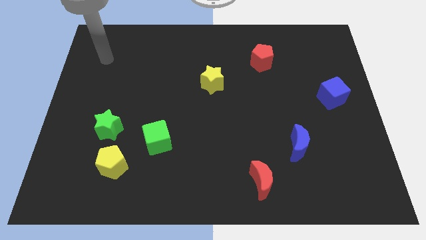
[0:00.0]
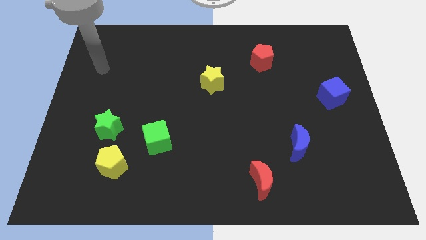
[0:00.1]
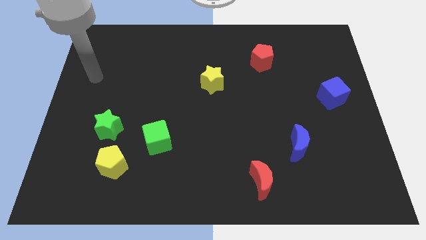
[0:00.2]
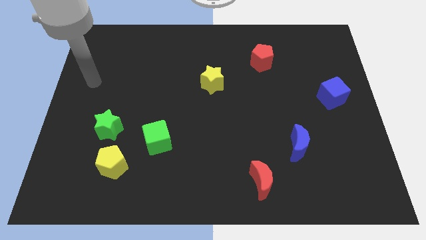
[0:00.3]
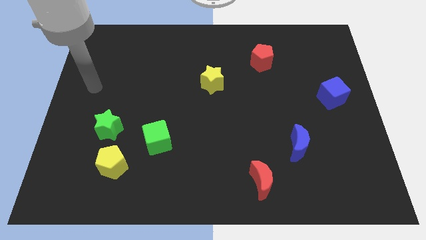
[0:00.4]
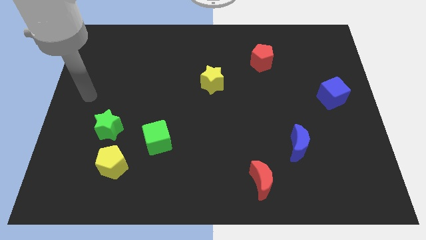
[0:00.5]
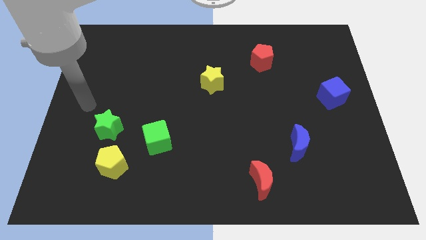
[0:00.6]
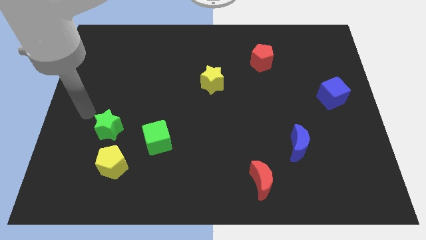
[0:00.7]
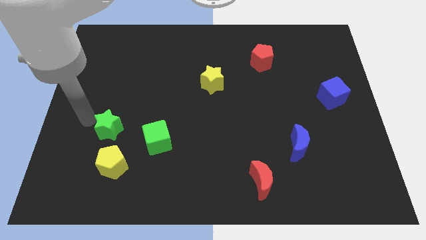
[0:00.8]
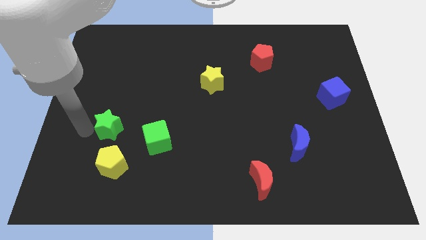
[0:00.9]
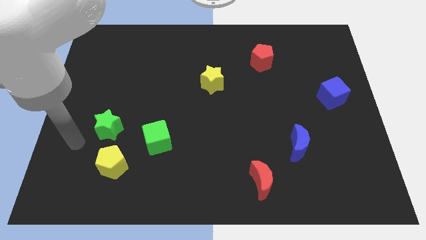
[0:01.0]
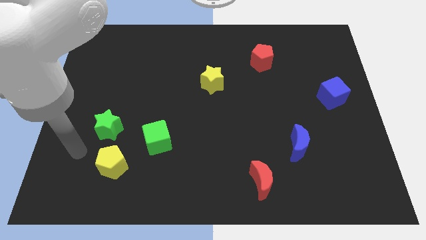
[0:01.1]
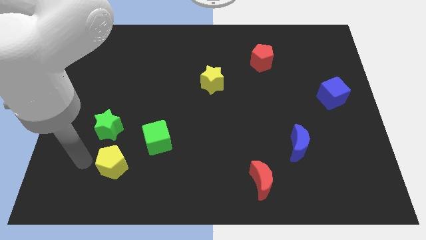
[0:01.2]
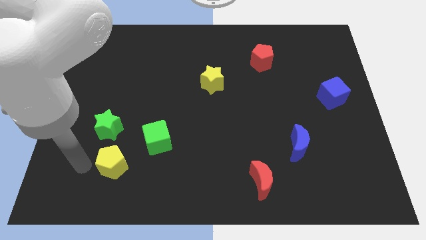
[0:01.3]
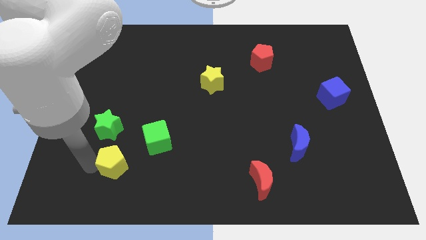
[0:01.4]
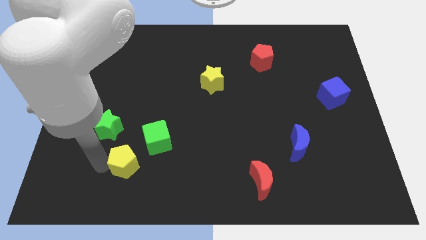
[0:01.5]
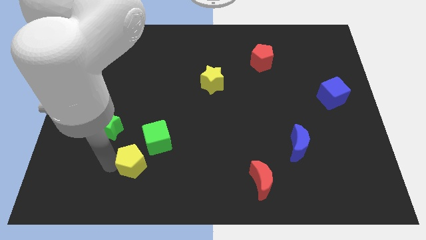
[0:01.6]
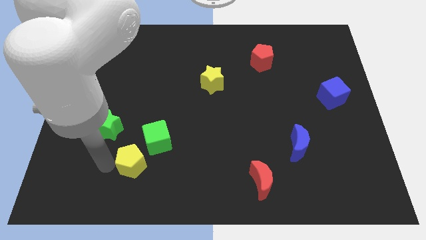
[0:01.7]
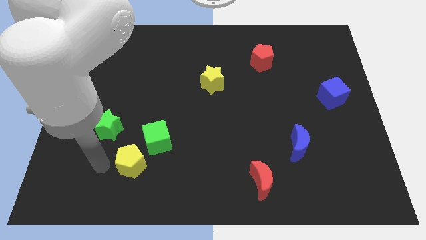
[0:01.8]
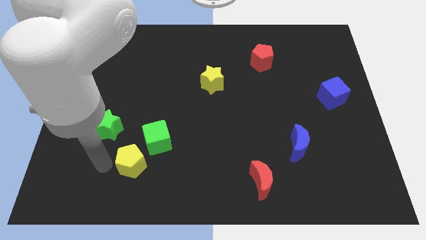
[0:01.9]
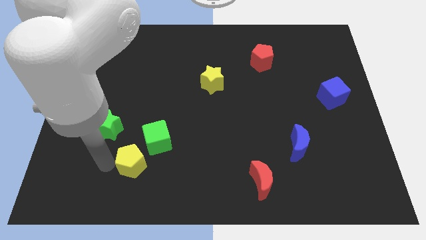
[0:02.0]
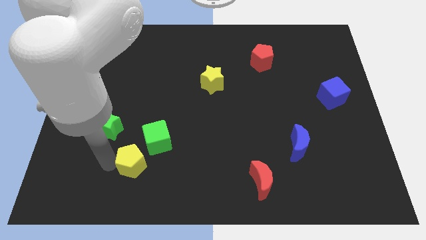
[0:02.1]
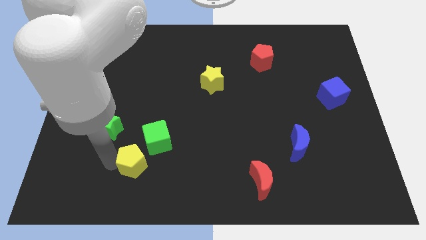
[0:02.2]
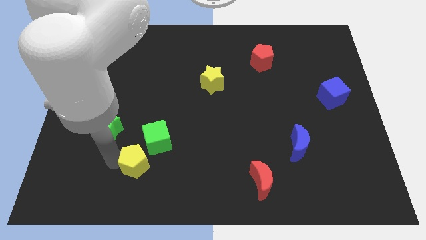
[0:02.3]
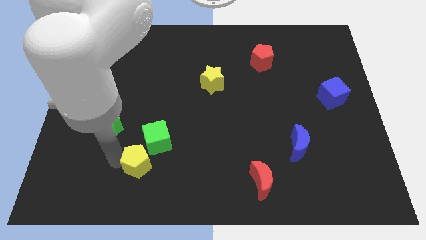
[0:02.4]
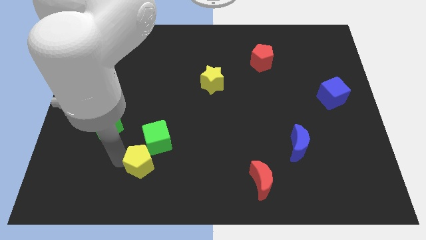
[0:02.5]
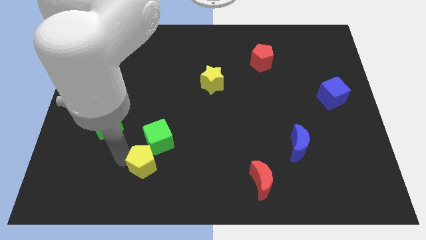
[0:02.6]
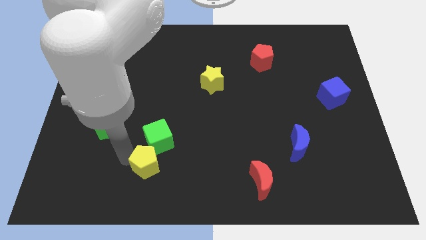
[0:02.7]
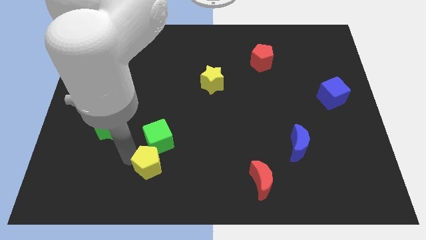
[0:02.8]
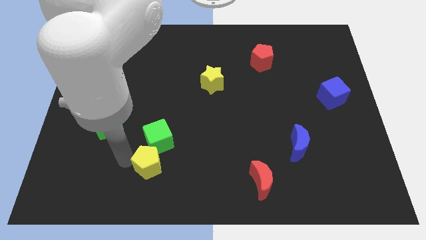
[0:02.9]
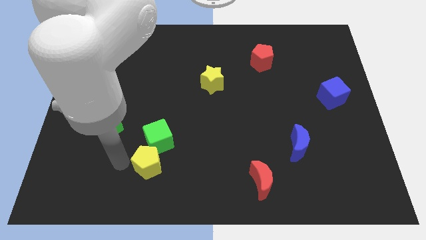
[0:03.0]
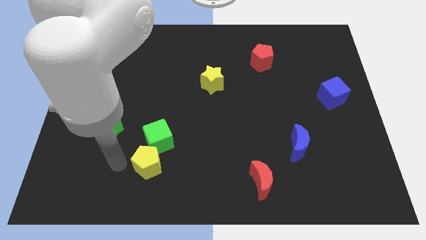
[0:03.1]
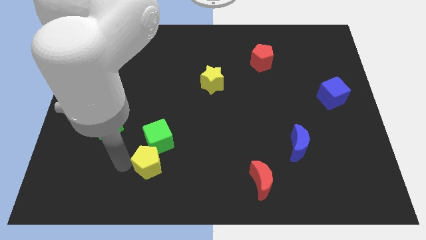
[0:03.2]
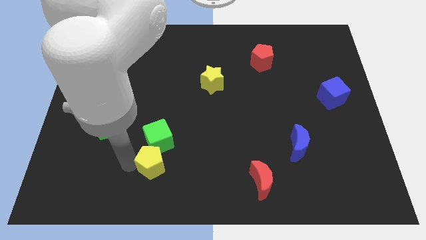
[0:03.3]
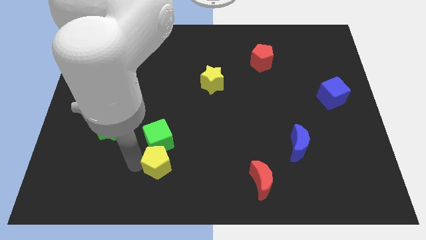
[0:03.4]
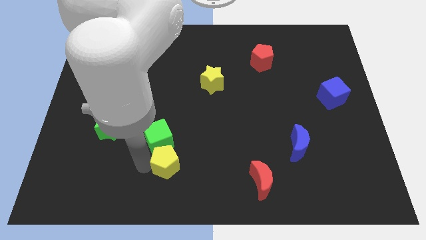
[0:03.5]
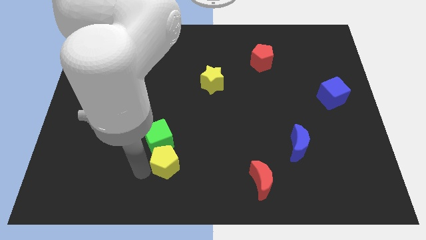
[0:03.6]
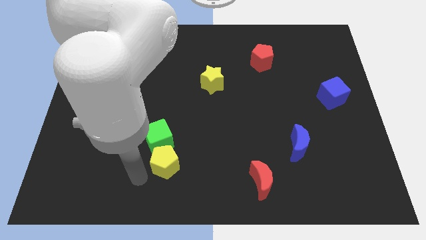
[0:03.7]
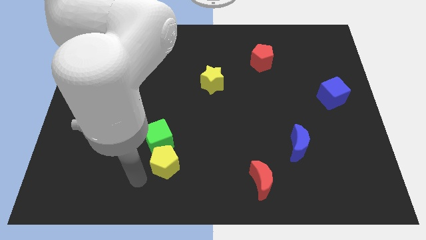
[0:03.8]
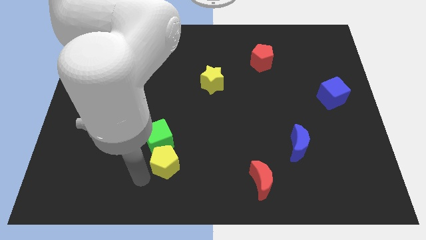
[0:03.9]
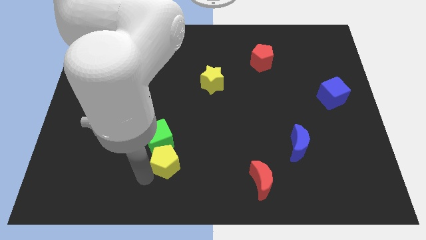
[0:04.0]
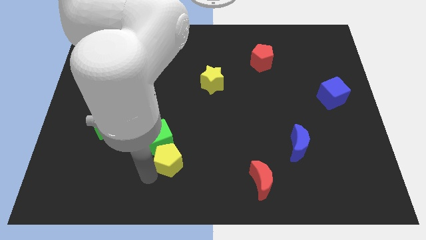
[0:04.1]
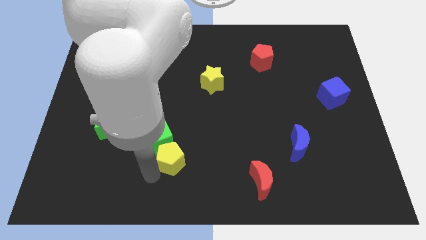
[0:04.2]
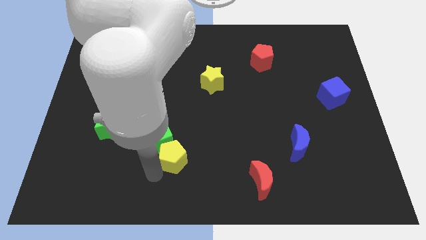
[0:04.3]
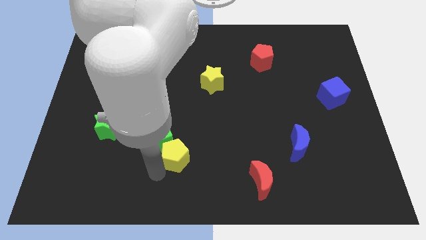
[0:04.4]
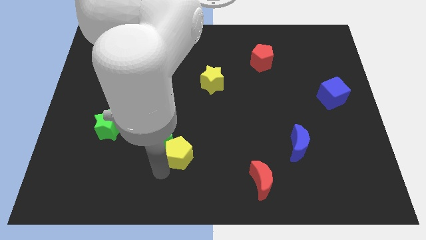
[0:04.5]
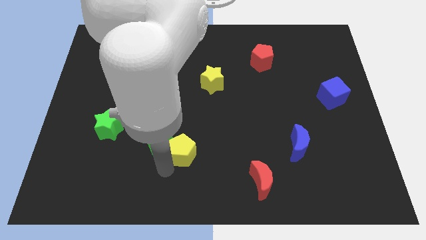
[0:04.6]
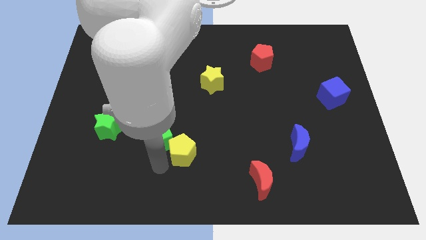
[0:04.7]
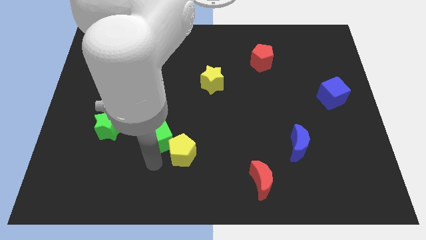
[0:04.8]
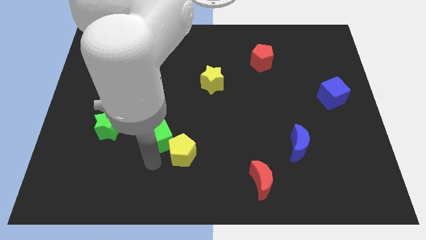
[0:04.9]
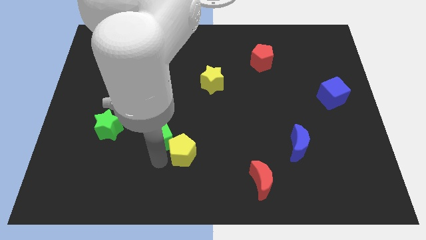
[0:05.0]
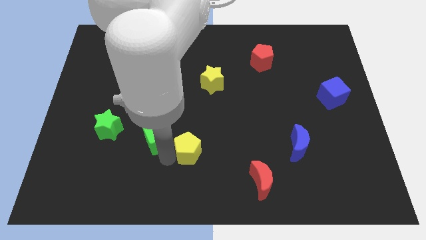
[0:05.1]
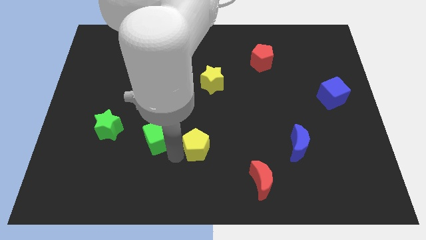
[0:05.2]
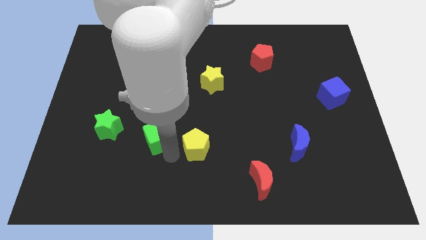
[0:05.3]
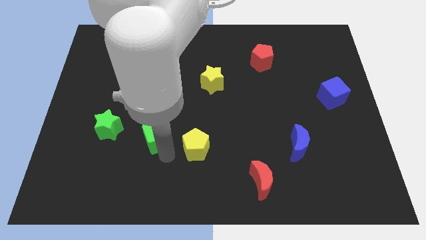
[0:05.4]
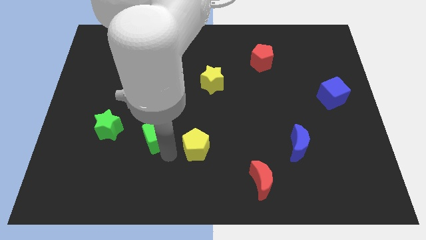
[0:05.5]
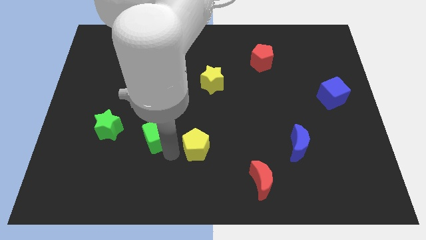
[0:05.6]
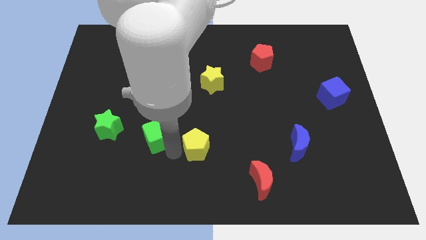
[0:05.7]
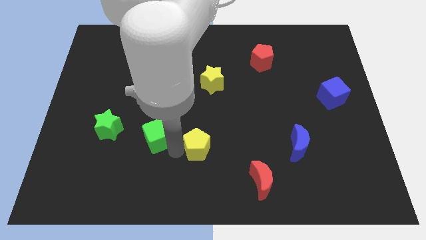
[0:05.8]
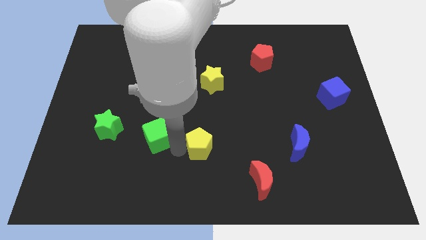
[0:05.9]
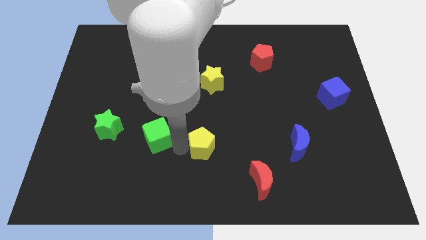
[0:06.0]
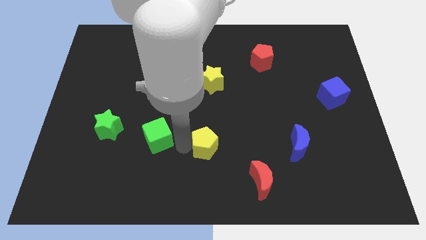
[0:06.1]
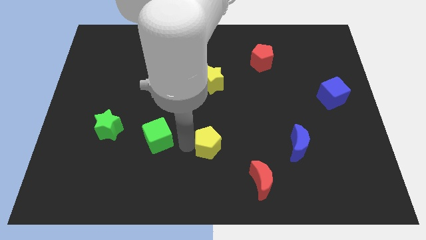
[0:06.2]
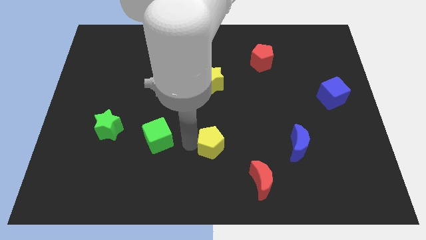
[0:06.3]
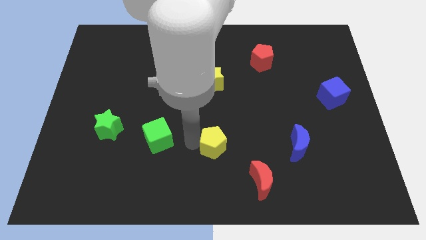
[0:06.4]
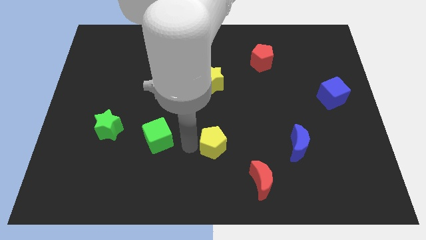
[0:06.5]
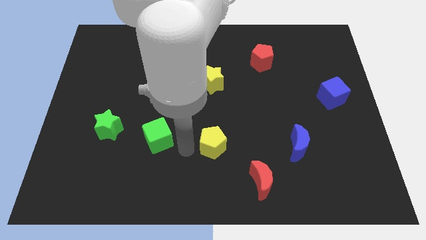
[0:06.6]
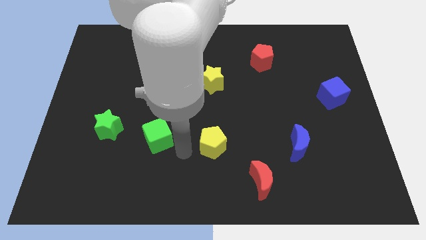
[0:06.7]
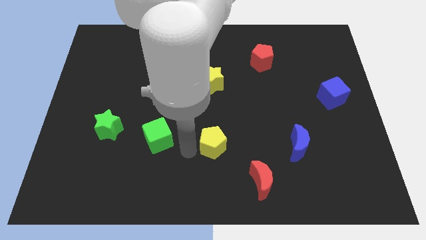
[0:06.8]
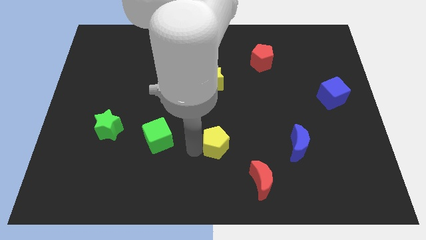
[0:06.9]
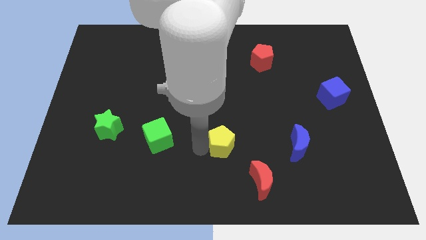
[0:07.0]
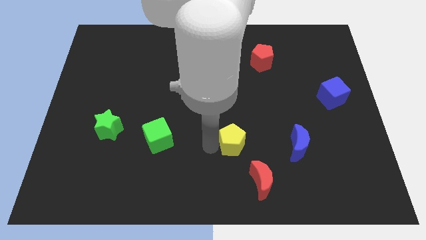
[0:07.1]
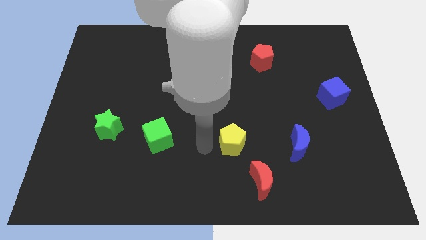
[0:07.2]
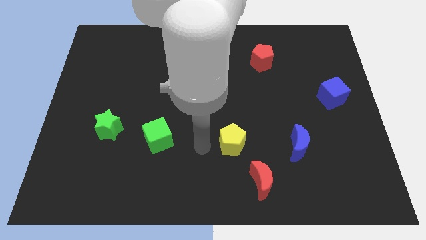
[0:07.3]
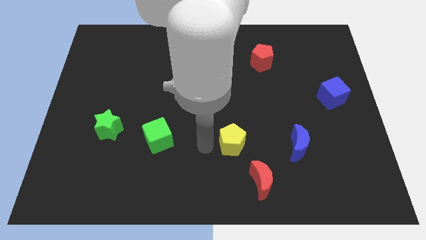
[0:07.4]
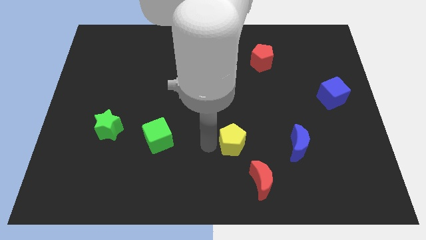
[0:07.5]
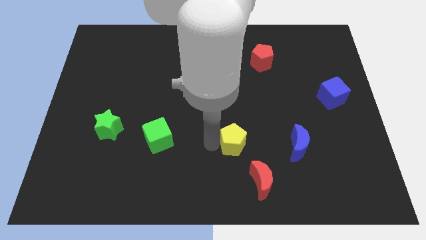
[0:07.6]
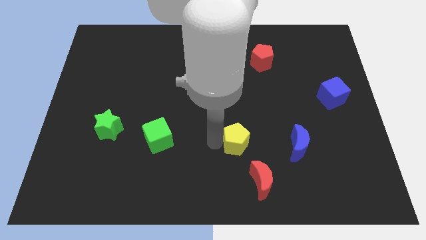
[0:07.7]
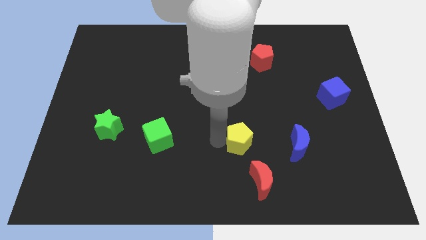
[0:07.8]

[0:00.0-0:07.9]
move the yellow pentagon to the top of the red moon
